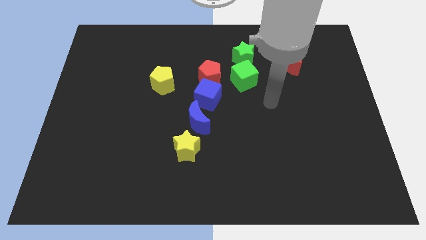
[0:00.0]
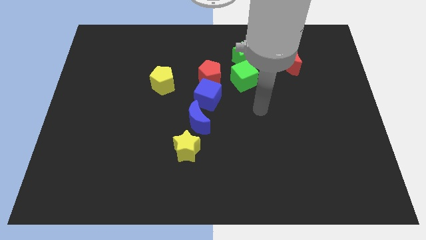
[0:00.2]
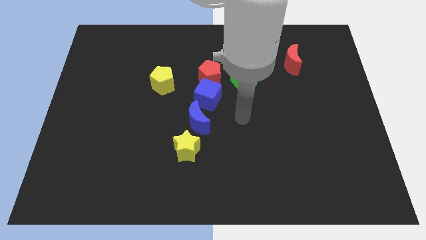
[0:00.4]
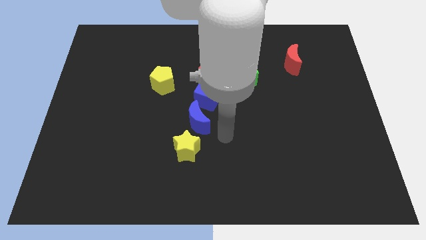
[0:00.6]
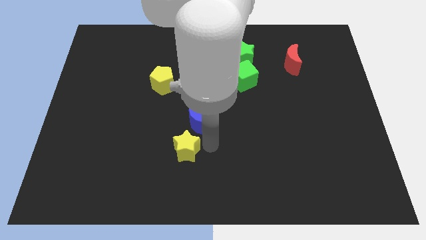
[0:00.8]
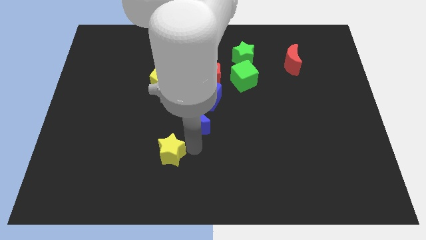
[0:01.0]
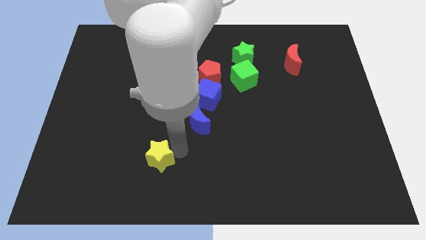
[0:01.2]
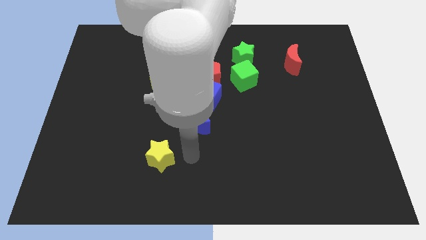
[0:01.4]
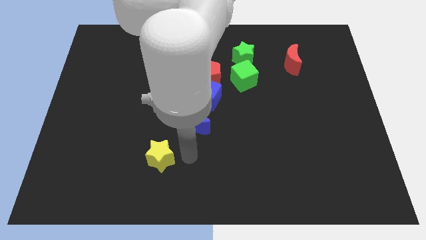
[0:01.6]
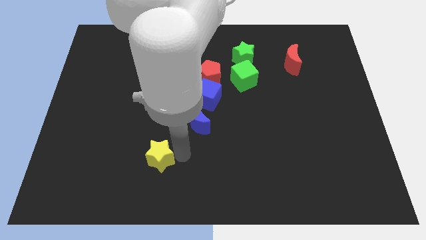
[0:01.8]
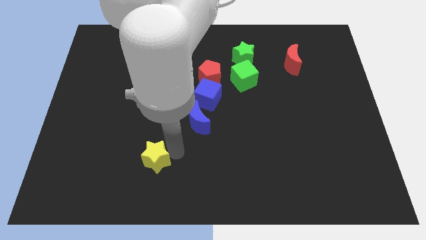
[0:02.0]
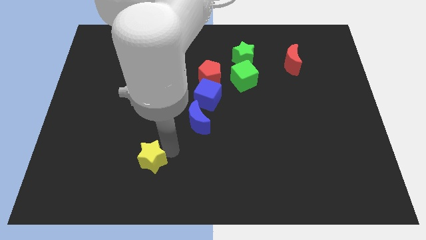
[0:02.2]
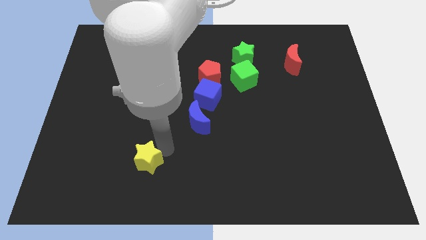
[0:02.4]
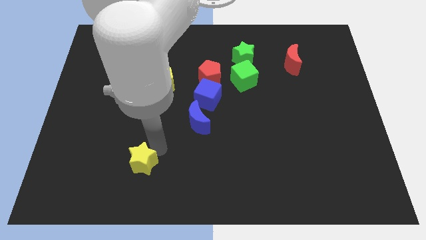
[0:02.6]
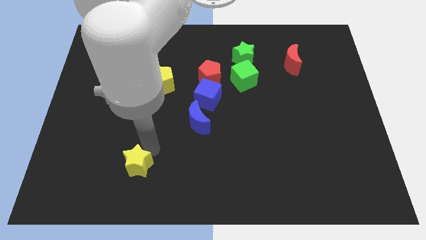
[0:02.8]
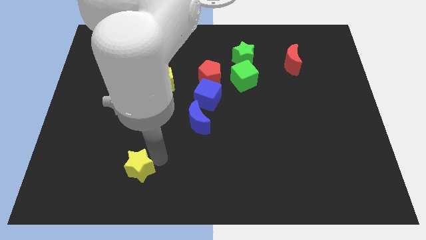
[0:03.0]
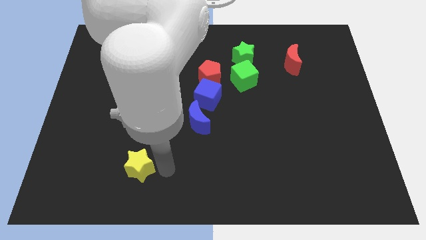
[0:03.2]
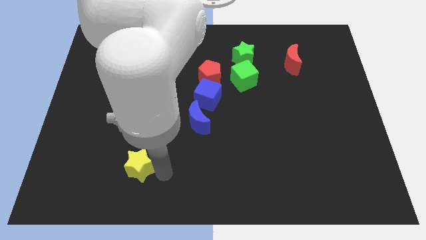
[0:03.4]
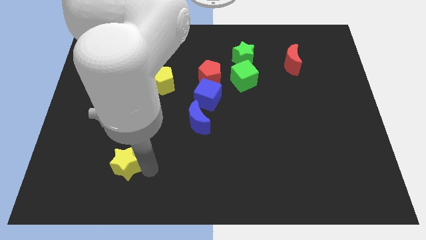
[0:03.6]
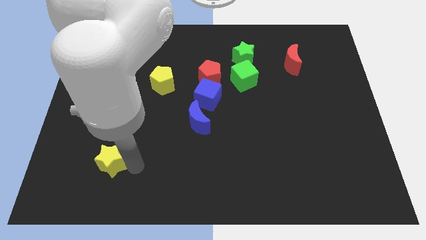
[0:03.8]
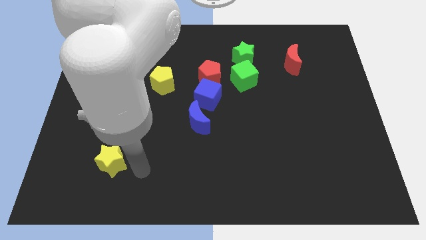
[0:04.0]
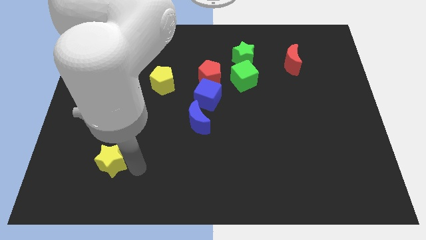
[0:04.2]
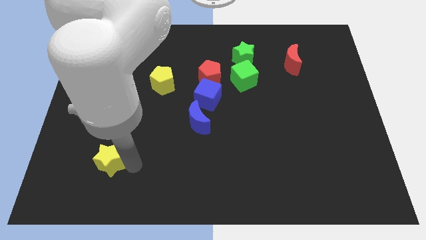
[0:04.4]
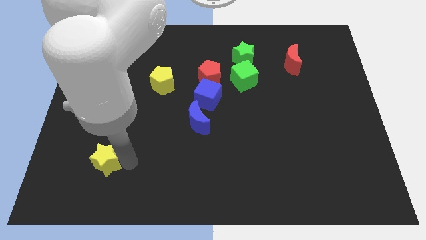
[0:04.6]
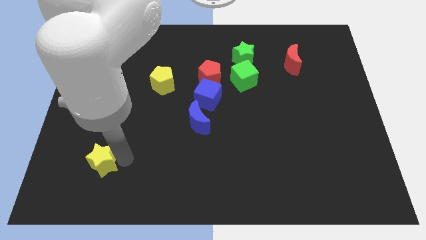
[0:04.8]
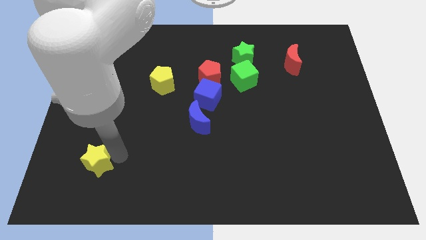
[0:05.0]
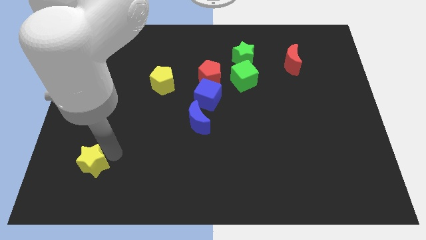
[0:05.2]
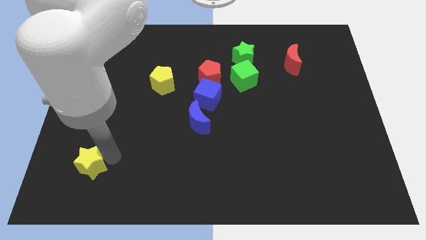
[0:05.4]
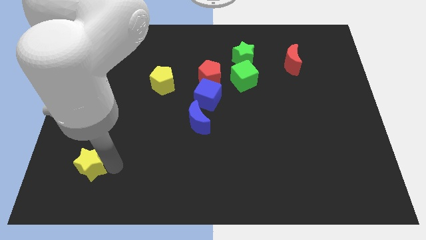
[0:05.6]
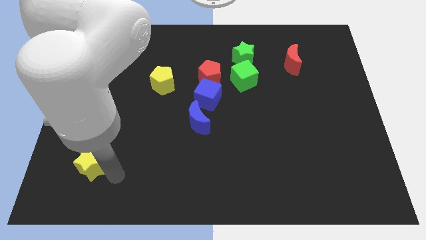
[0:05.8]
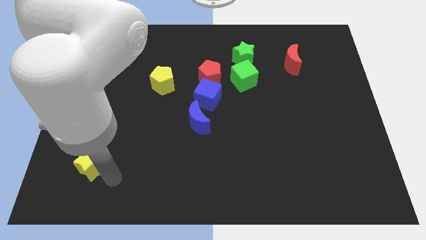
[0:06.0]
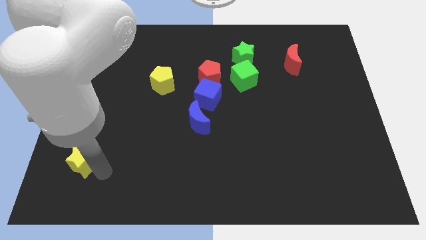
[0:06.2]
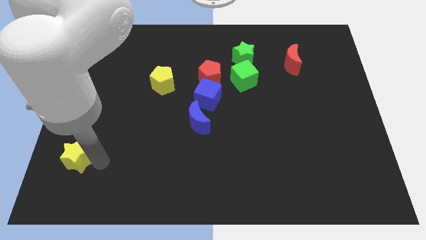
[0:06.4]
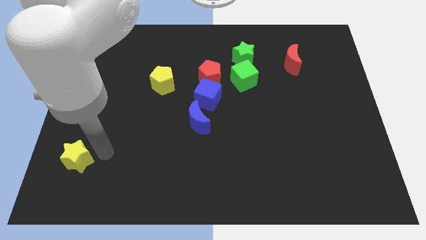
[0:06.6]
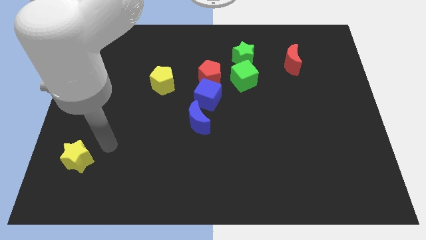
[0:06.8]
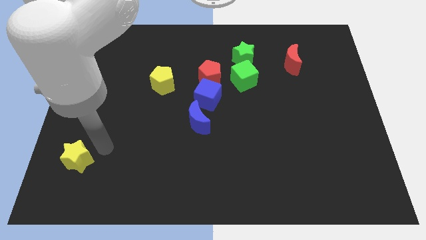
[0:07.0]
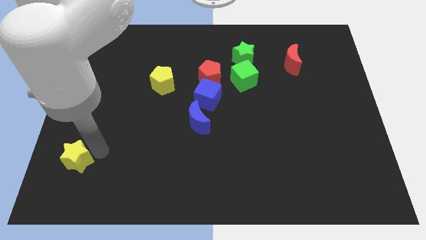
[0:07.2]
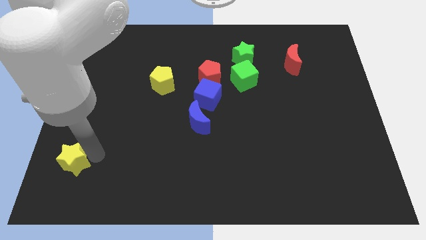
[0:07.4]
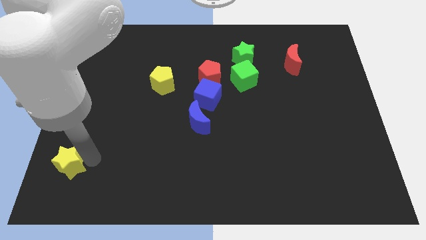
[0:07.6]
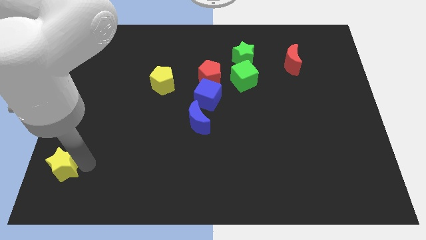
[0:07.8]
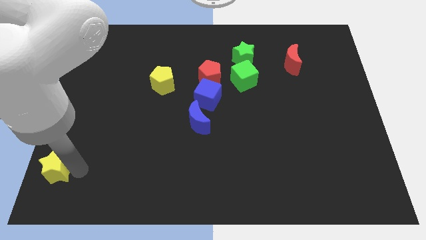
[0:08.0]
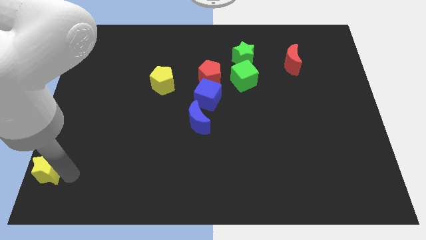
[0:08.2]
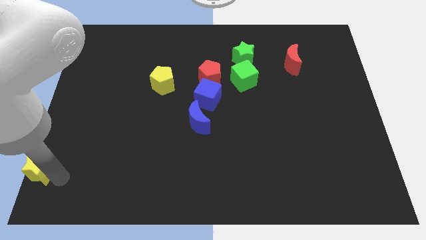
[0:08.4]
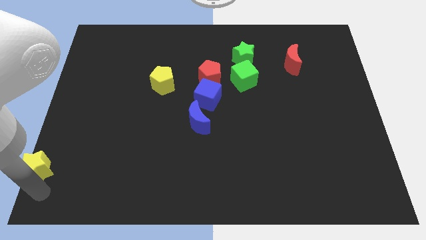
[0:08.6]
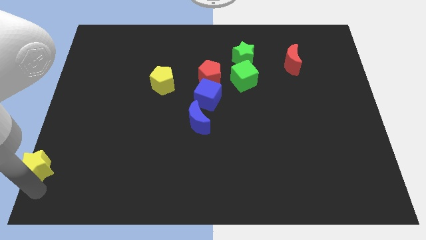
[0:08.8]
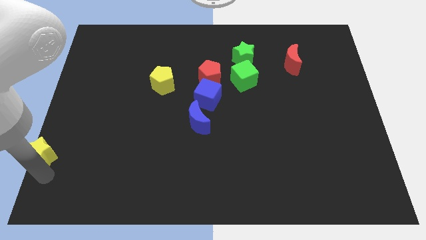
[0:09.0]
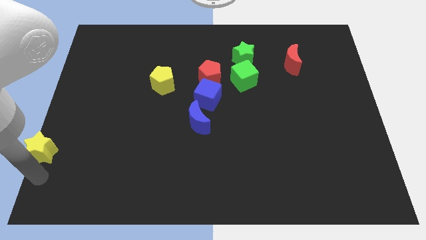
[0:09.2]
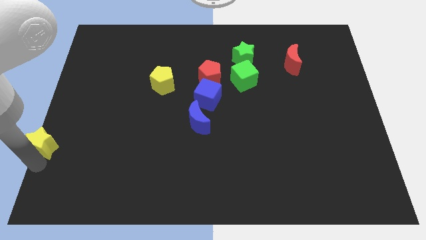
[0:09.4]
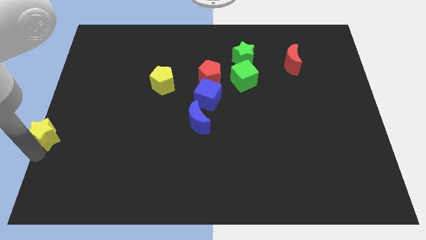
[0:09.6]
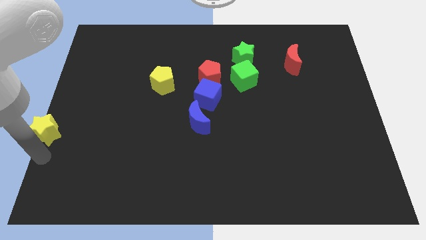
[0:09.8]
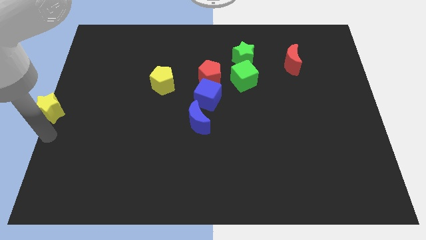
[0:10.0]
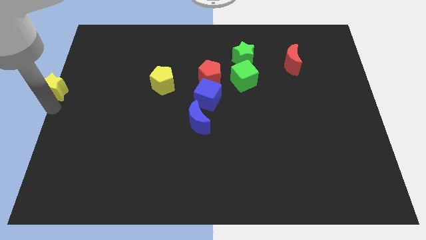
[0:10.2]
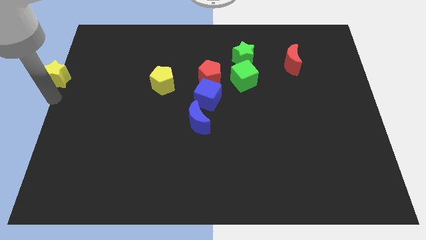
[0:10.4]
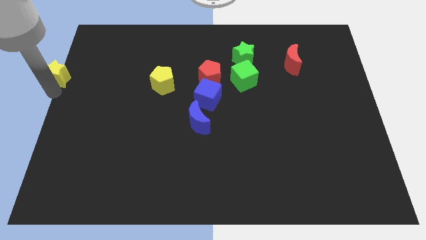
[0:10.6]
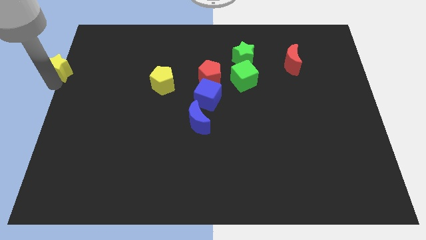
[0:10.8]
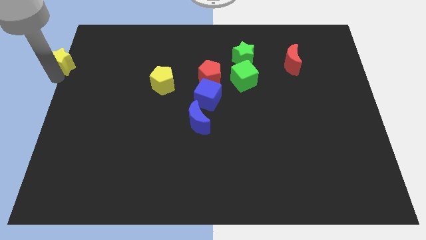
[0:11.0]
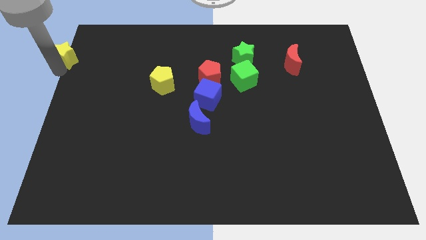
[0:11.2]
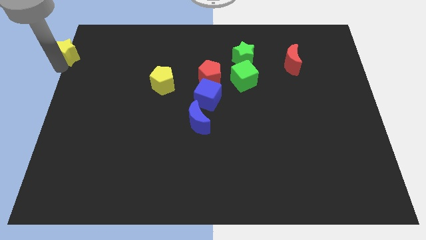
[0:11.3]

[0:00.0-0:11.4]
move the yellow star to the top left

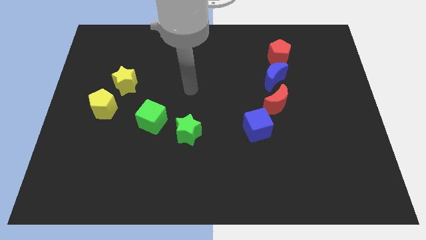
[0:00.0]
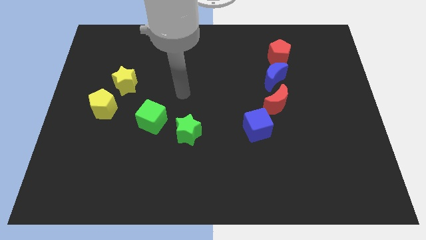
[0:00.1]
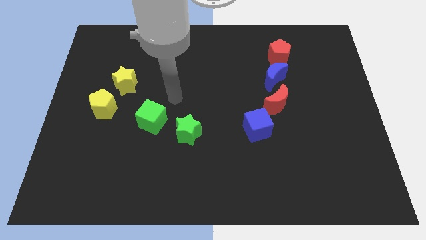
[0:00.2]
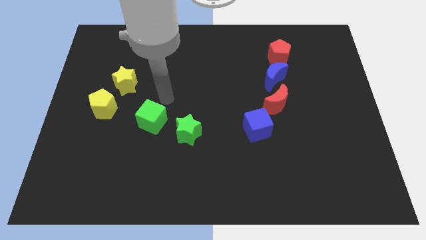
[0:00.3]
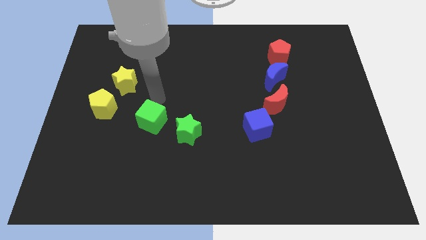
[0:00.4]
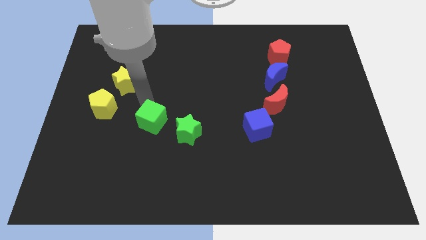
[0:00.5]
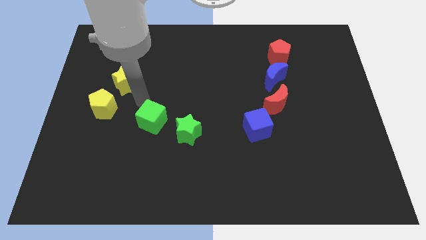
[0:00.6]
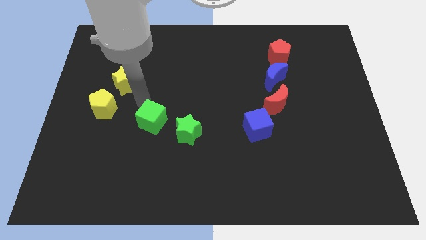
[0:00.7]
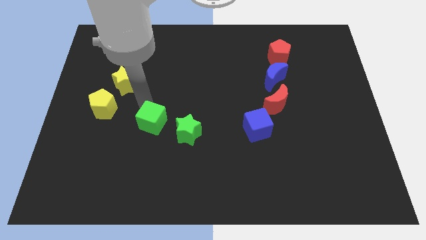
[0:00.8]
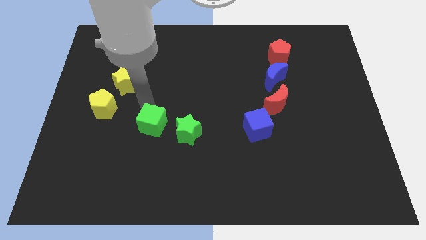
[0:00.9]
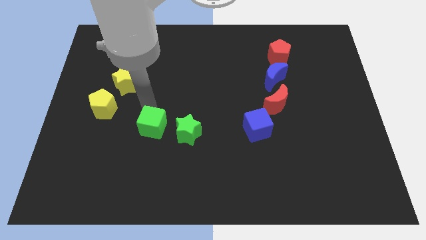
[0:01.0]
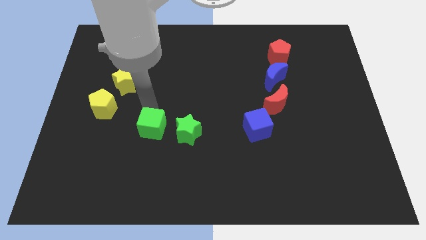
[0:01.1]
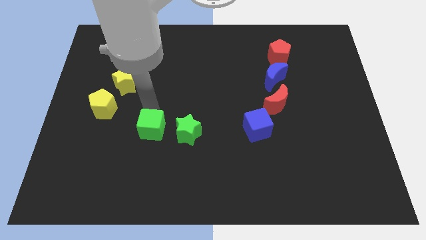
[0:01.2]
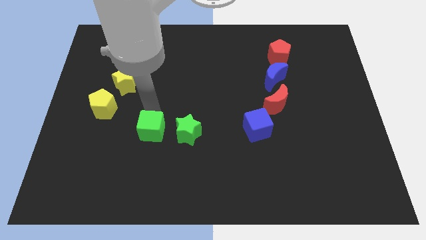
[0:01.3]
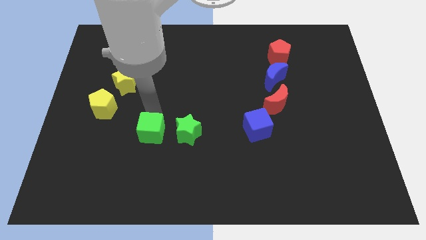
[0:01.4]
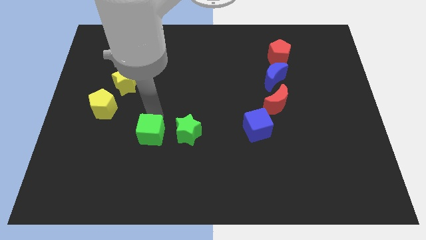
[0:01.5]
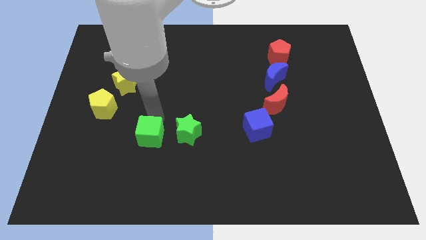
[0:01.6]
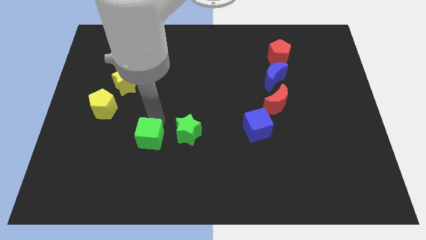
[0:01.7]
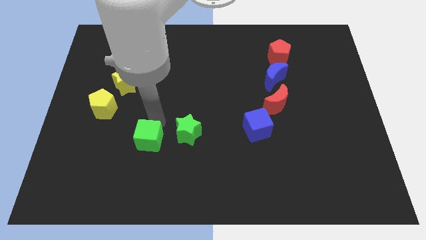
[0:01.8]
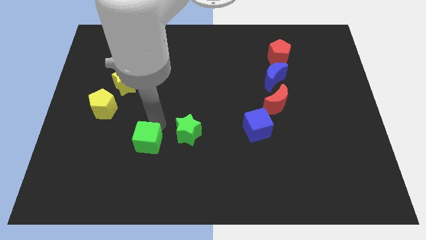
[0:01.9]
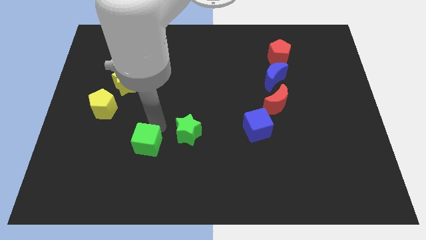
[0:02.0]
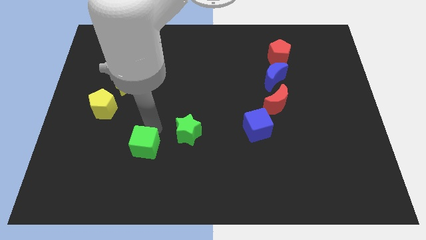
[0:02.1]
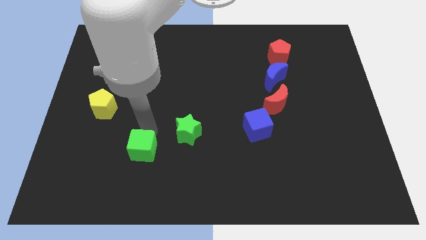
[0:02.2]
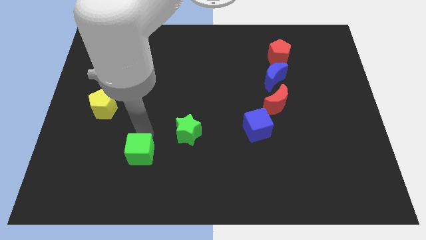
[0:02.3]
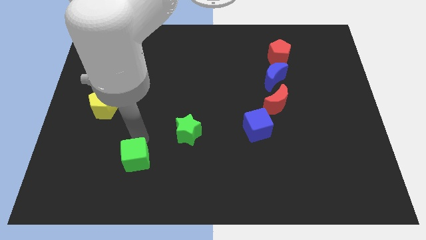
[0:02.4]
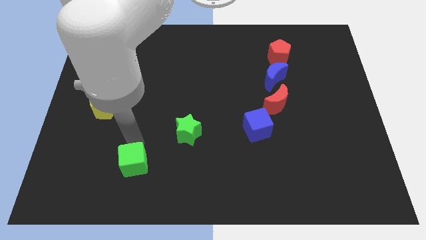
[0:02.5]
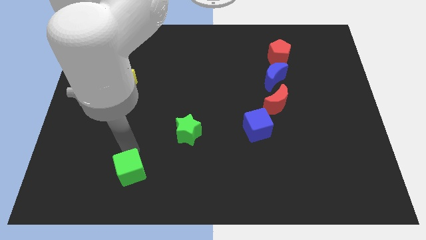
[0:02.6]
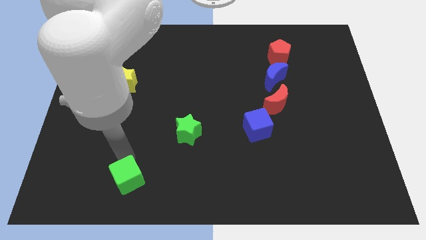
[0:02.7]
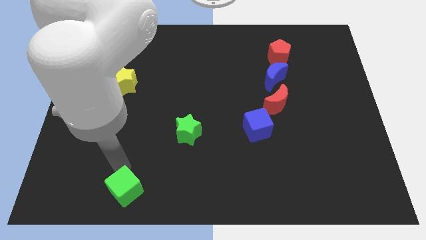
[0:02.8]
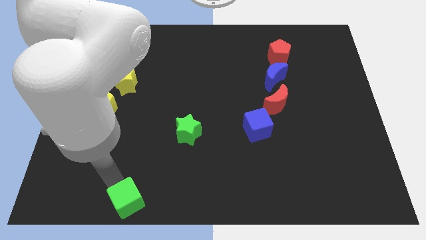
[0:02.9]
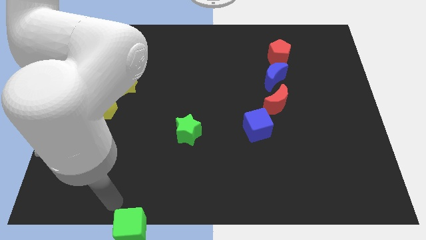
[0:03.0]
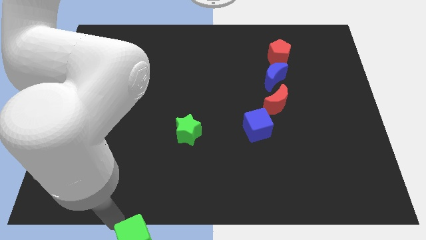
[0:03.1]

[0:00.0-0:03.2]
put the green cube to the bottom
